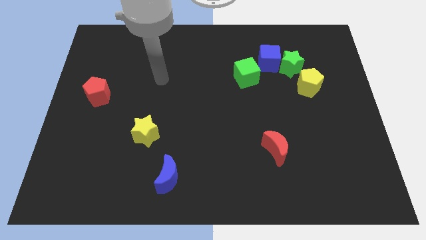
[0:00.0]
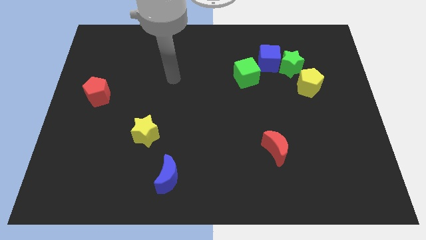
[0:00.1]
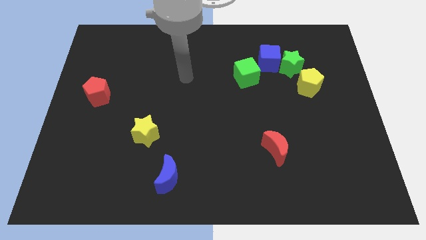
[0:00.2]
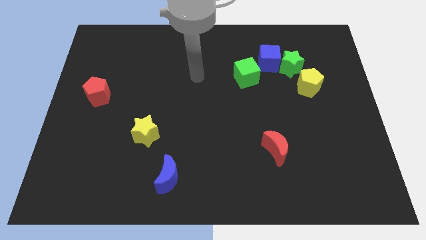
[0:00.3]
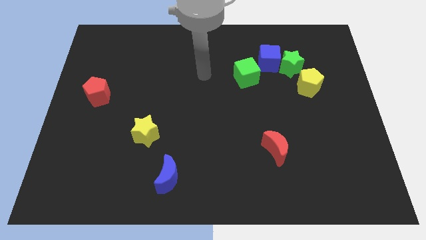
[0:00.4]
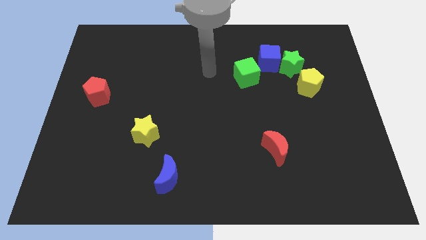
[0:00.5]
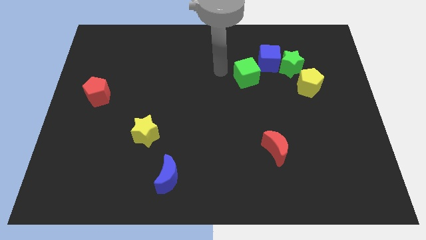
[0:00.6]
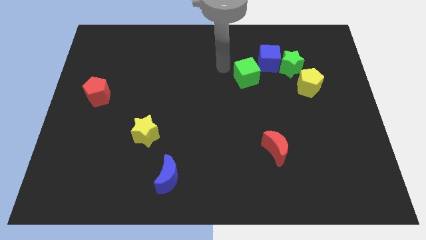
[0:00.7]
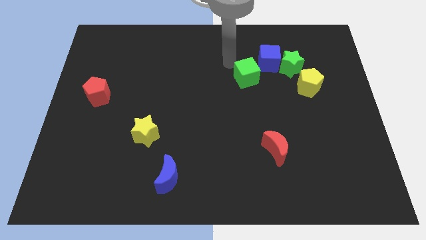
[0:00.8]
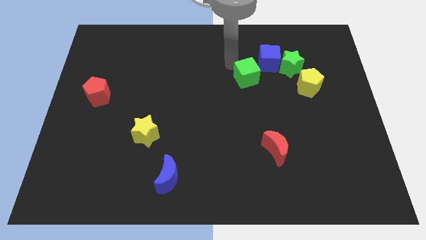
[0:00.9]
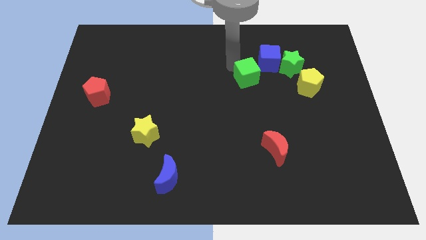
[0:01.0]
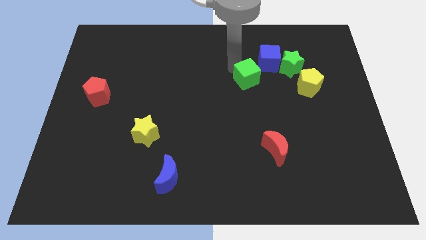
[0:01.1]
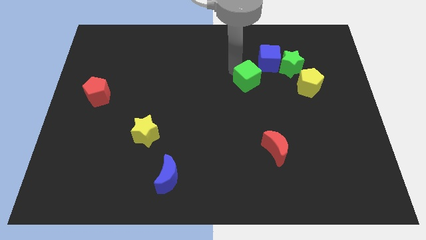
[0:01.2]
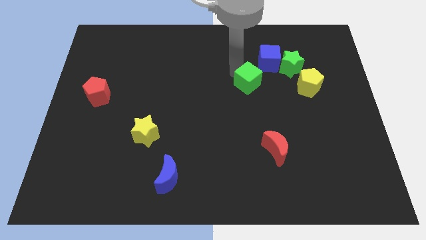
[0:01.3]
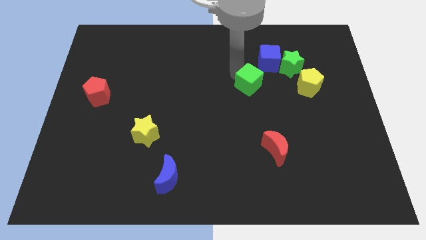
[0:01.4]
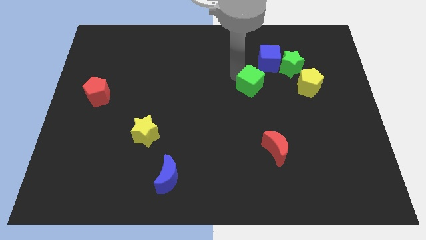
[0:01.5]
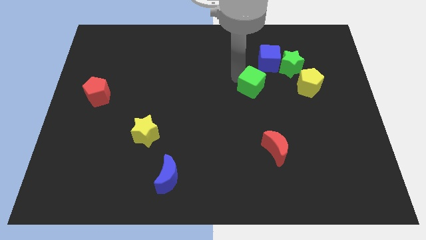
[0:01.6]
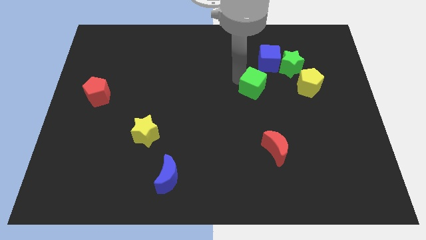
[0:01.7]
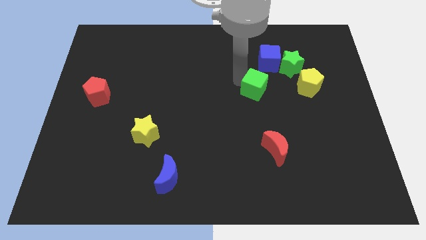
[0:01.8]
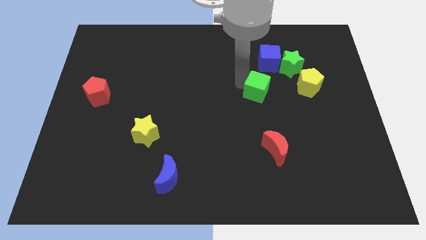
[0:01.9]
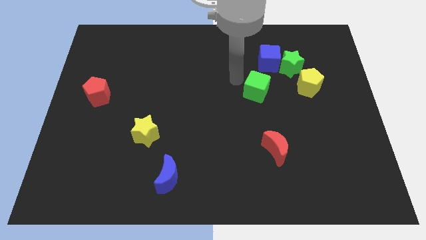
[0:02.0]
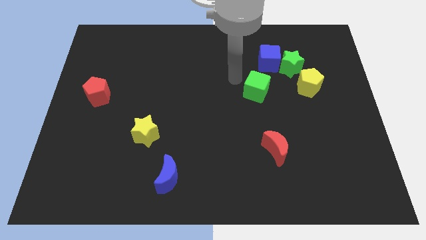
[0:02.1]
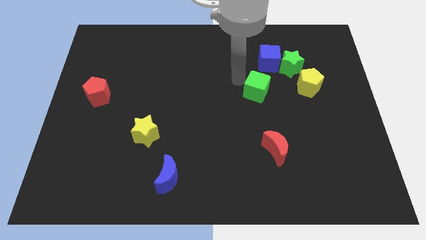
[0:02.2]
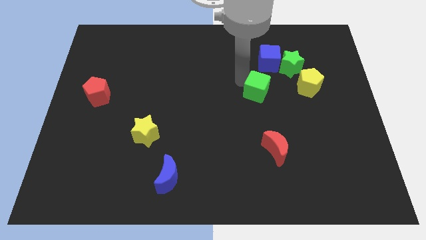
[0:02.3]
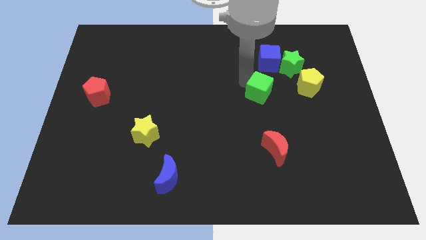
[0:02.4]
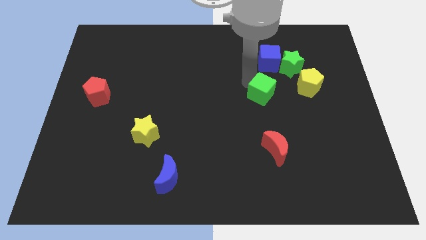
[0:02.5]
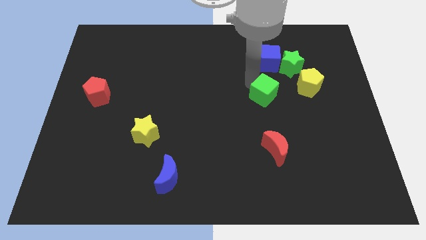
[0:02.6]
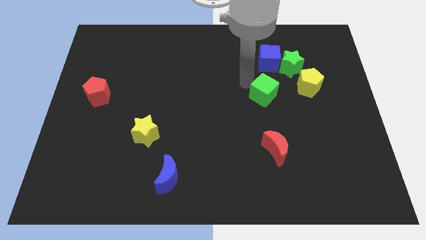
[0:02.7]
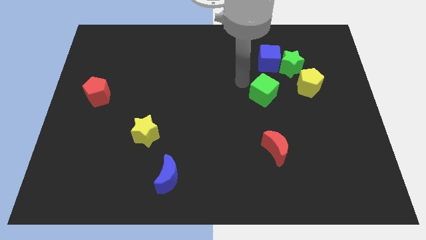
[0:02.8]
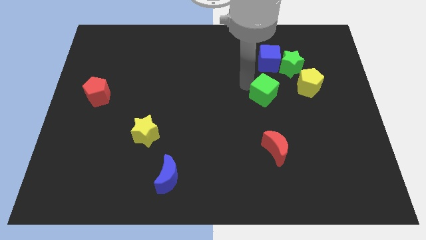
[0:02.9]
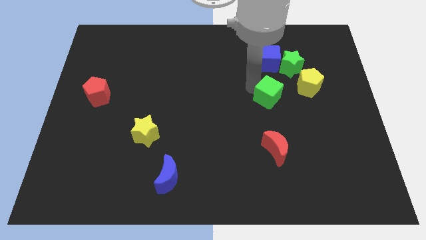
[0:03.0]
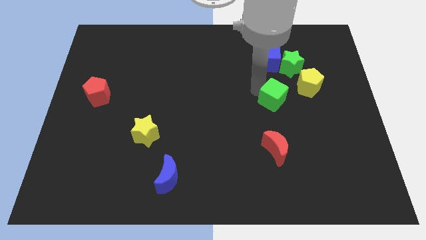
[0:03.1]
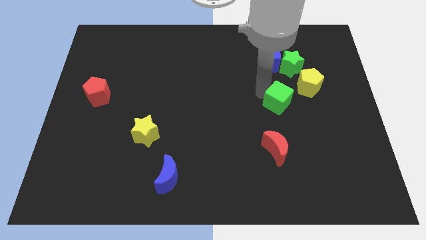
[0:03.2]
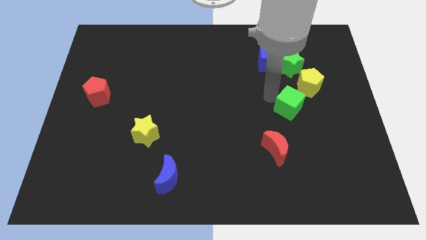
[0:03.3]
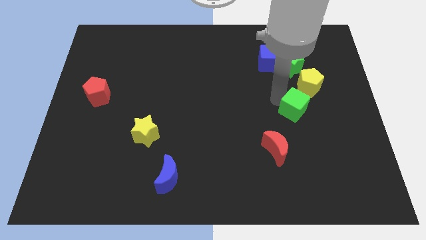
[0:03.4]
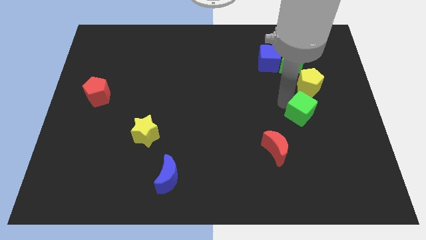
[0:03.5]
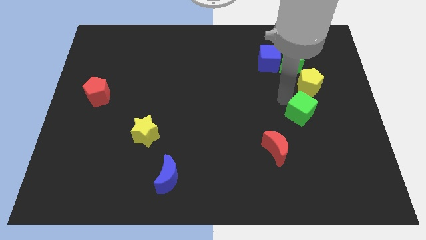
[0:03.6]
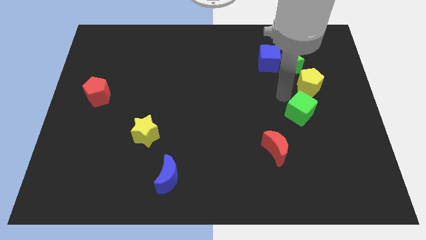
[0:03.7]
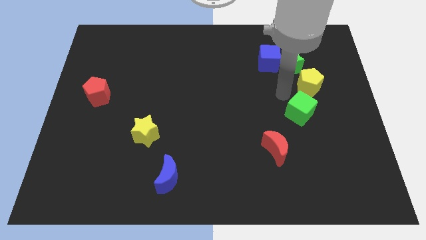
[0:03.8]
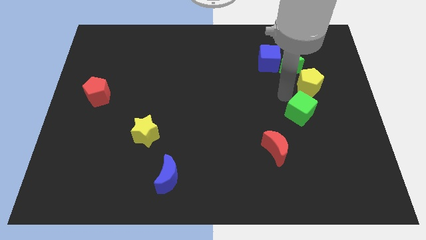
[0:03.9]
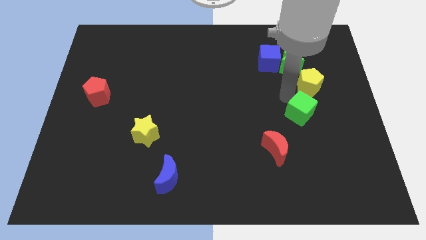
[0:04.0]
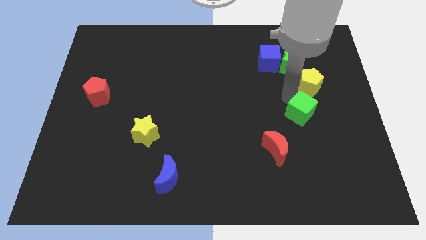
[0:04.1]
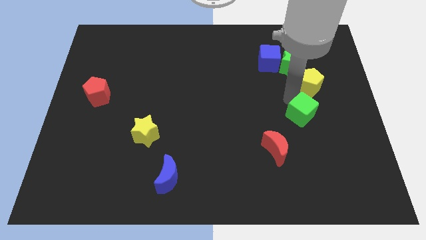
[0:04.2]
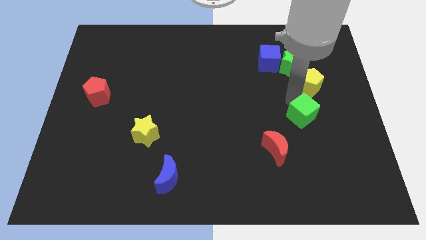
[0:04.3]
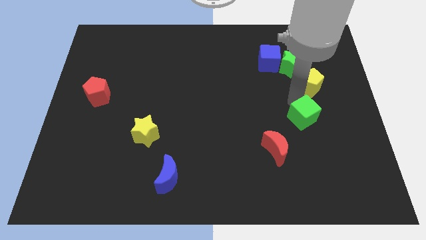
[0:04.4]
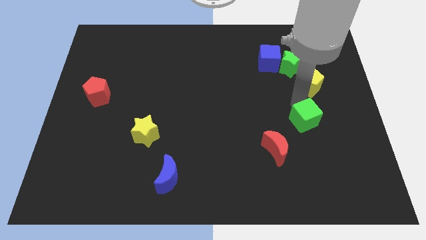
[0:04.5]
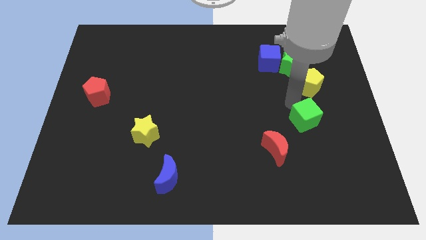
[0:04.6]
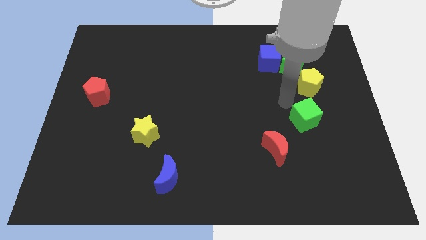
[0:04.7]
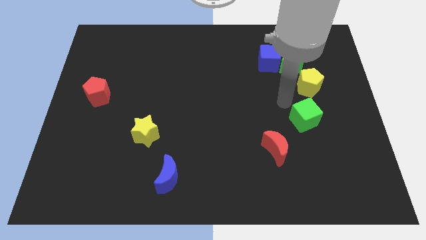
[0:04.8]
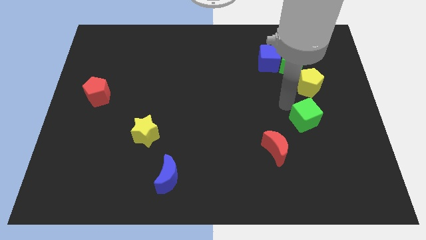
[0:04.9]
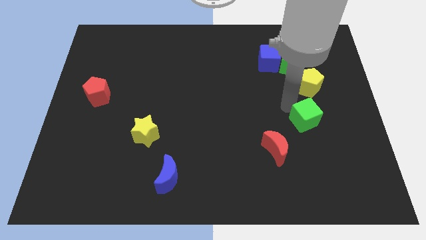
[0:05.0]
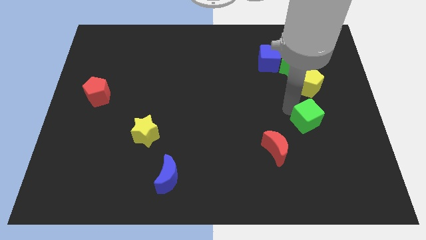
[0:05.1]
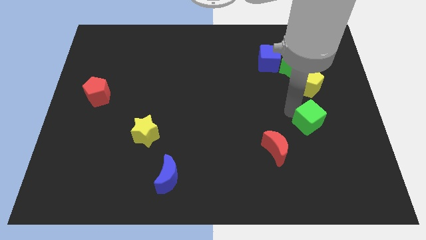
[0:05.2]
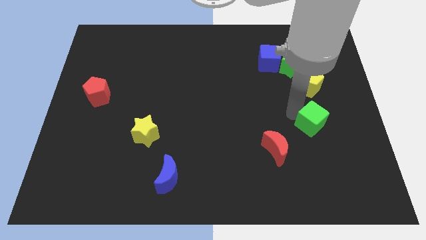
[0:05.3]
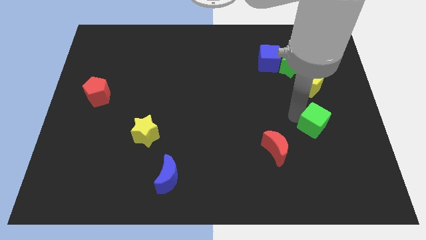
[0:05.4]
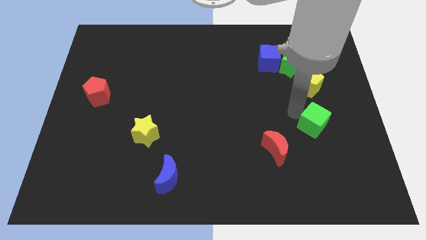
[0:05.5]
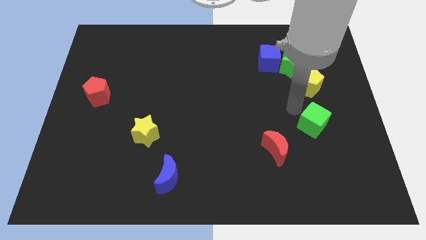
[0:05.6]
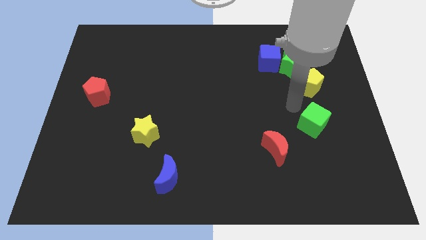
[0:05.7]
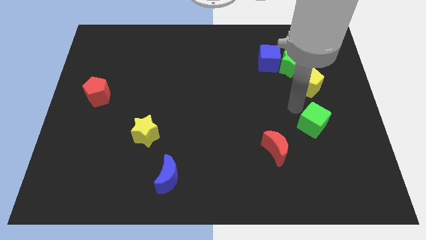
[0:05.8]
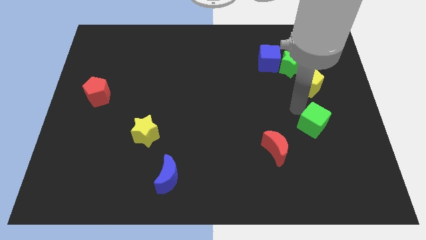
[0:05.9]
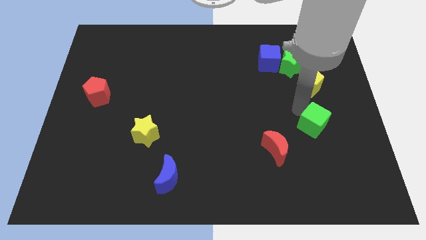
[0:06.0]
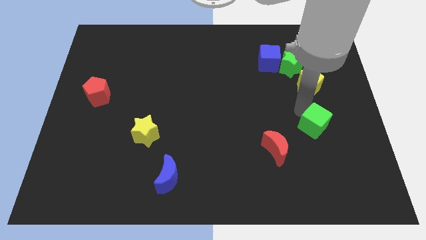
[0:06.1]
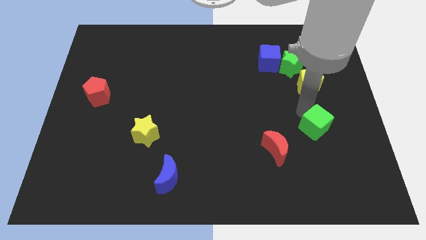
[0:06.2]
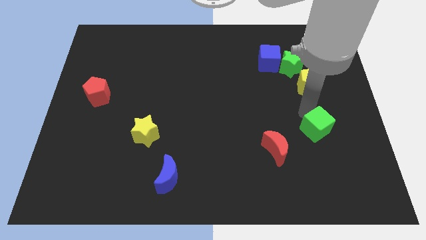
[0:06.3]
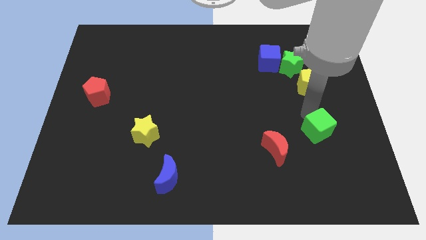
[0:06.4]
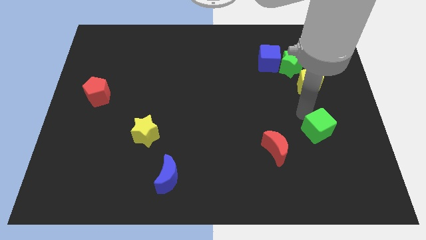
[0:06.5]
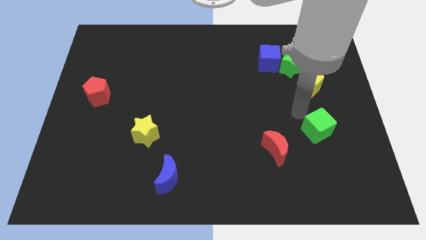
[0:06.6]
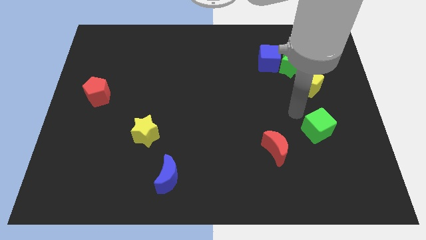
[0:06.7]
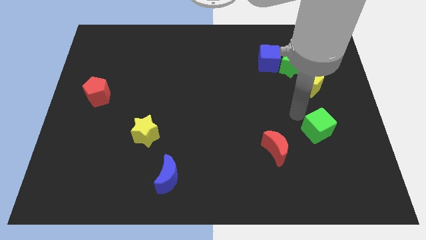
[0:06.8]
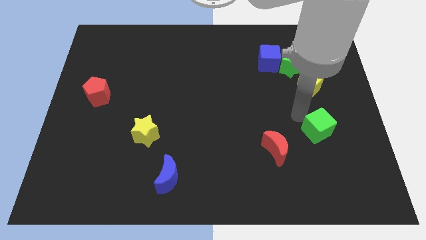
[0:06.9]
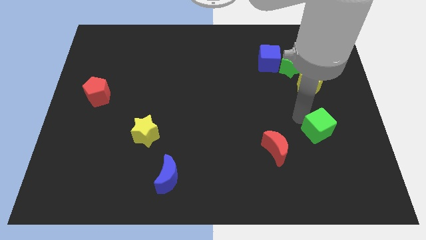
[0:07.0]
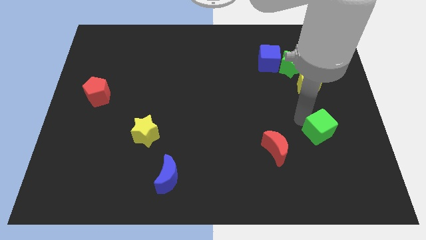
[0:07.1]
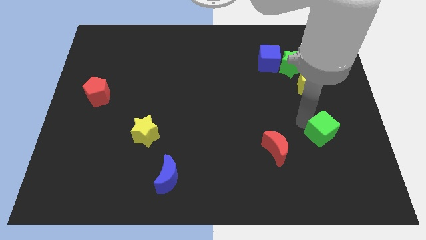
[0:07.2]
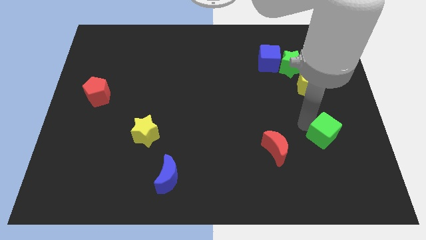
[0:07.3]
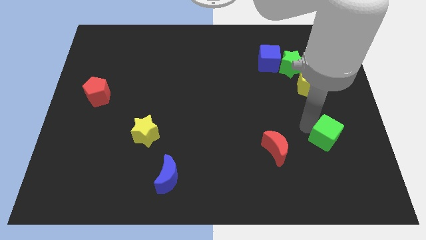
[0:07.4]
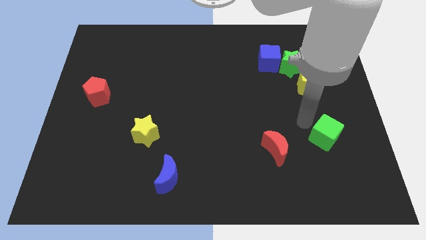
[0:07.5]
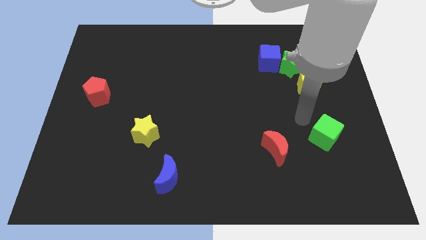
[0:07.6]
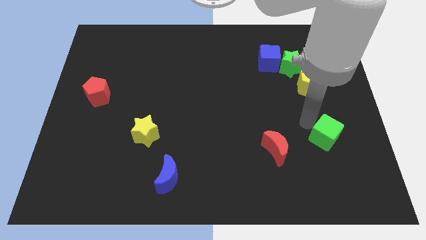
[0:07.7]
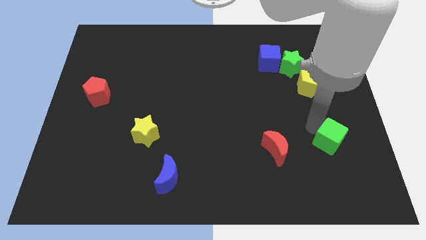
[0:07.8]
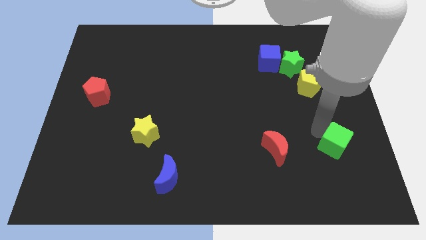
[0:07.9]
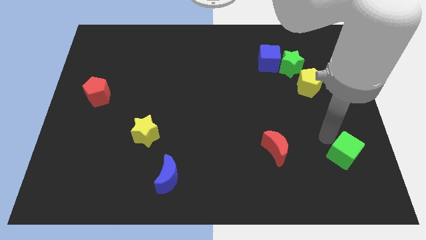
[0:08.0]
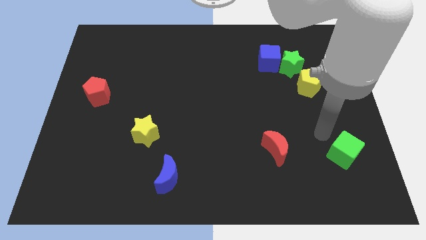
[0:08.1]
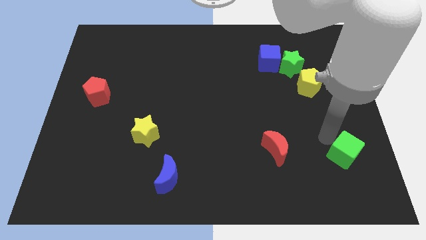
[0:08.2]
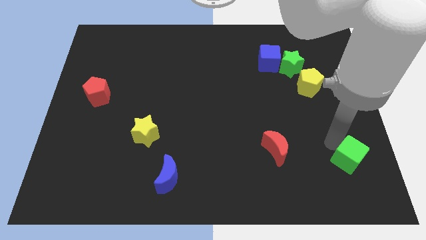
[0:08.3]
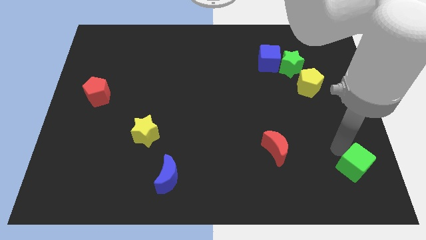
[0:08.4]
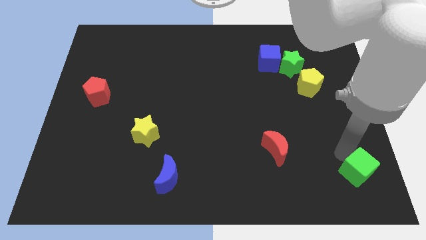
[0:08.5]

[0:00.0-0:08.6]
move the green cube to the bottom right corner
